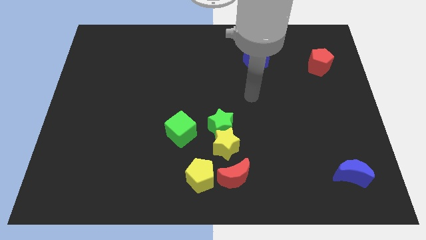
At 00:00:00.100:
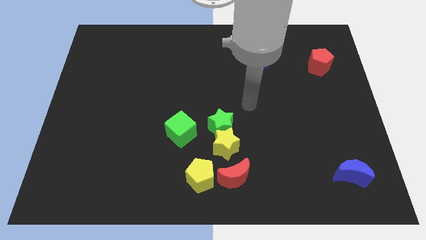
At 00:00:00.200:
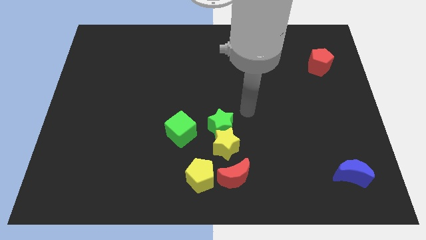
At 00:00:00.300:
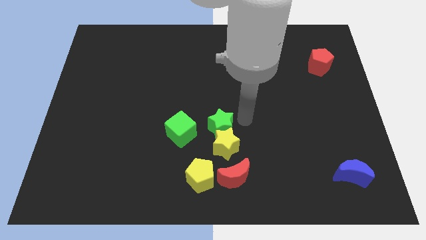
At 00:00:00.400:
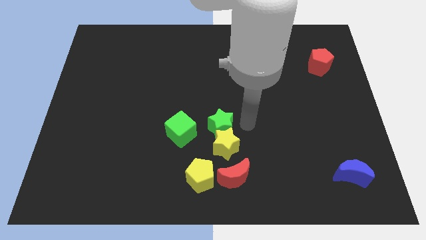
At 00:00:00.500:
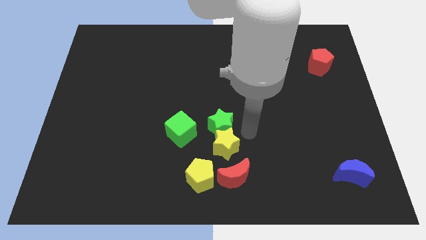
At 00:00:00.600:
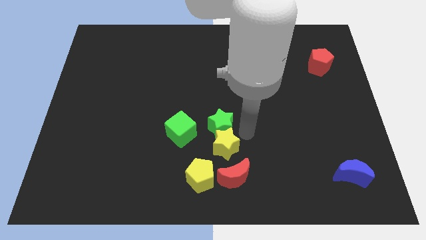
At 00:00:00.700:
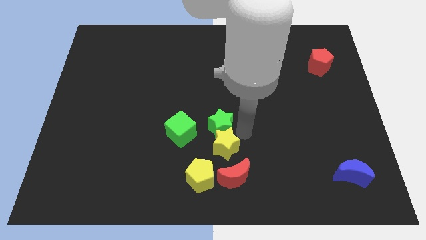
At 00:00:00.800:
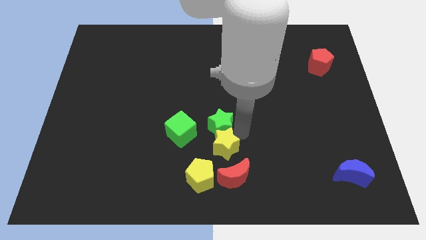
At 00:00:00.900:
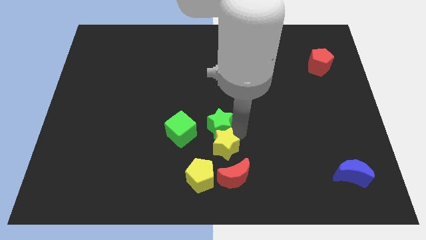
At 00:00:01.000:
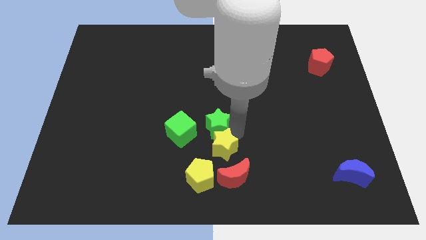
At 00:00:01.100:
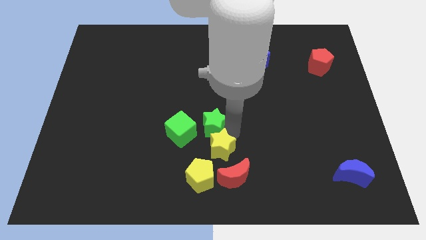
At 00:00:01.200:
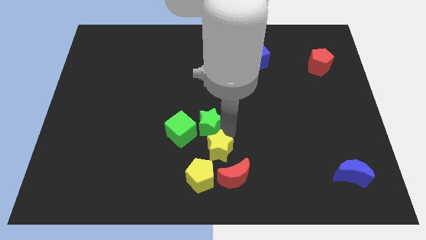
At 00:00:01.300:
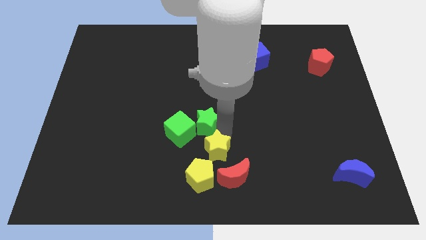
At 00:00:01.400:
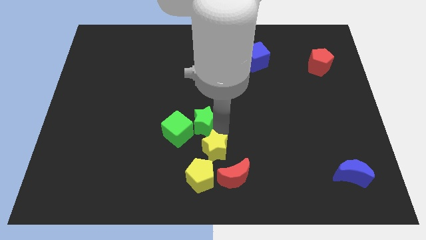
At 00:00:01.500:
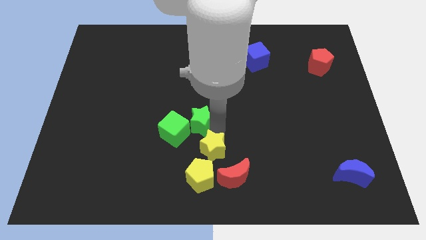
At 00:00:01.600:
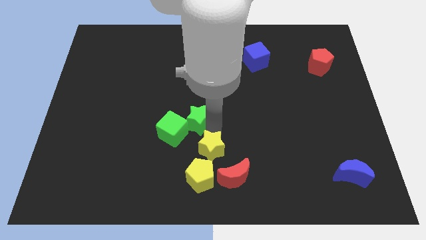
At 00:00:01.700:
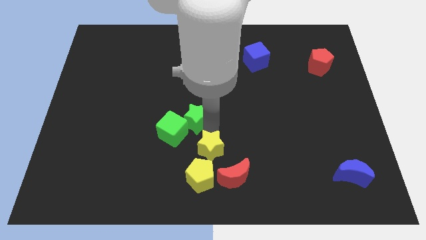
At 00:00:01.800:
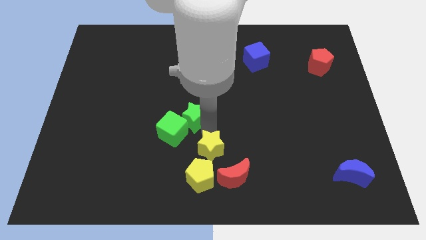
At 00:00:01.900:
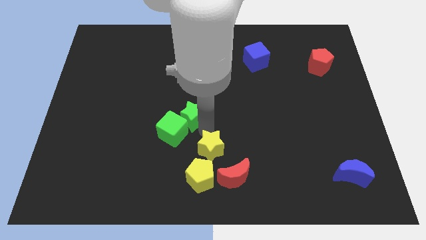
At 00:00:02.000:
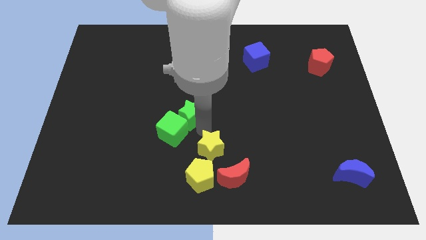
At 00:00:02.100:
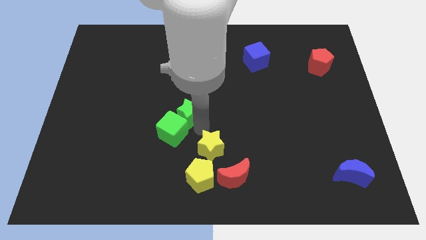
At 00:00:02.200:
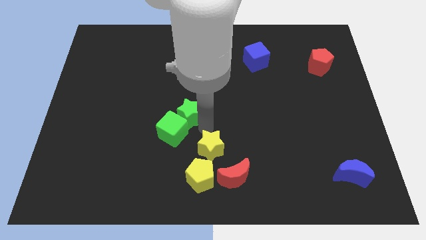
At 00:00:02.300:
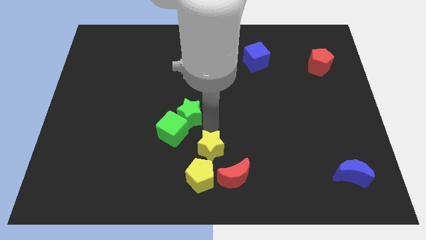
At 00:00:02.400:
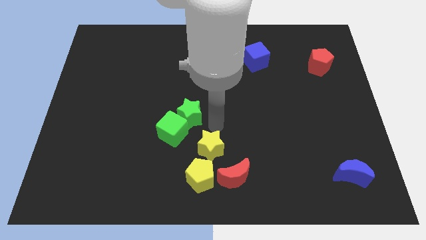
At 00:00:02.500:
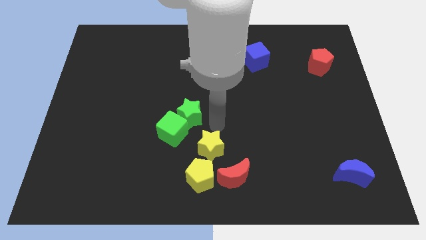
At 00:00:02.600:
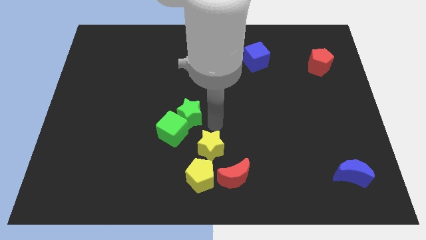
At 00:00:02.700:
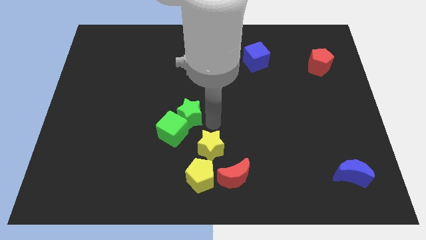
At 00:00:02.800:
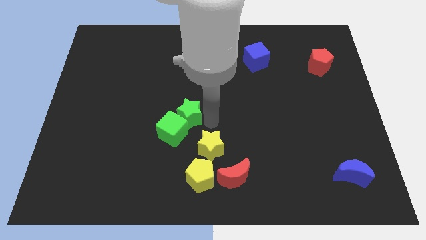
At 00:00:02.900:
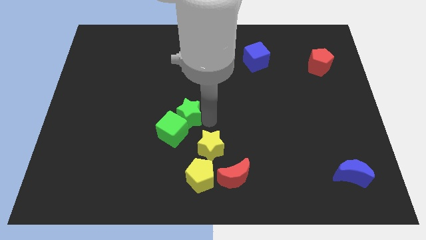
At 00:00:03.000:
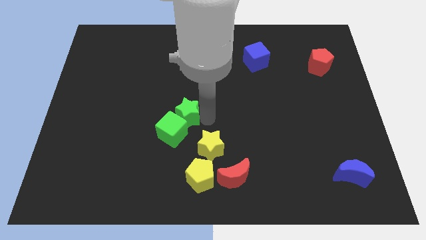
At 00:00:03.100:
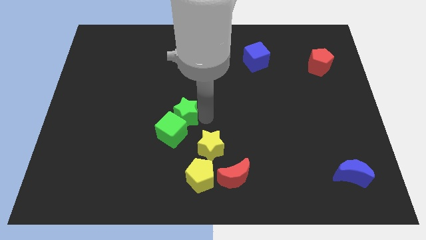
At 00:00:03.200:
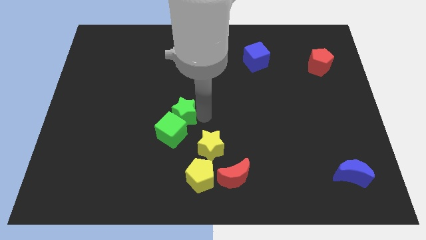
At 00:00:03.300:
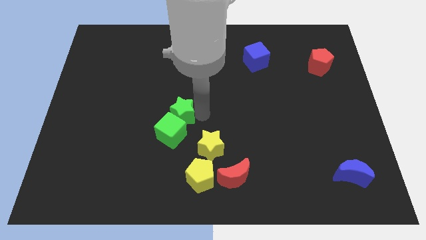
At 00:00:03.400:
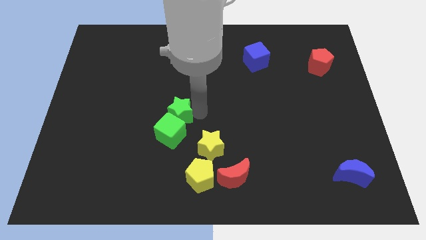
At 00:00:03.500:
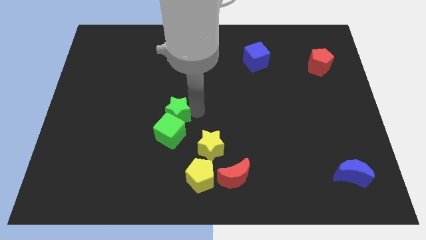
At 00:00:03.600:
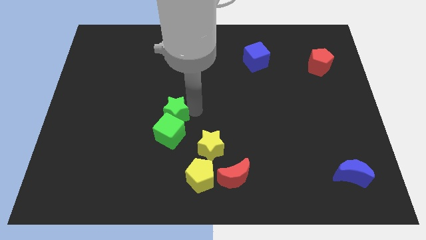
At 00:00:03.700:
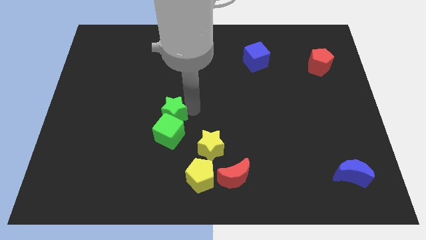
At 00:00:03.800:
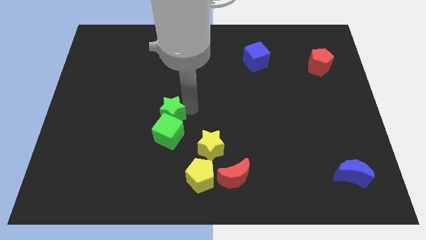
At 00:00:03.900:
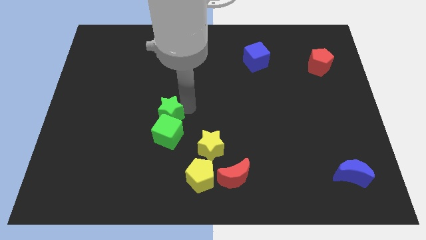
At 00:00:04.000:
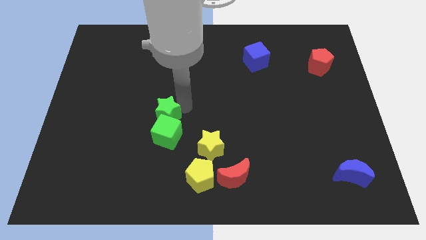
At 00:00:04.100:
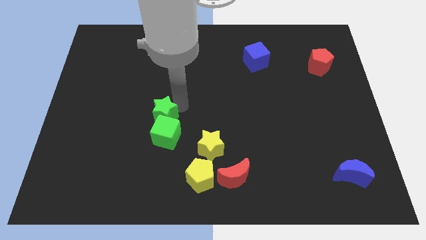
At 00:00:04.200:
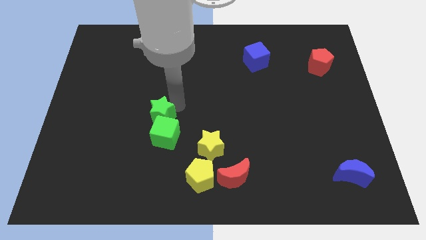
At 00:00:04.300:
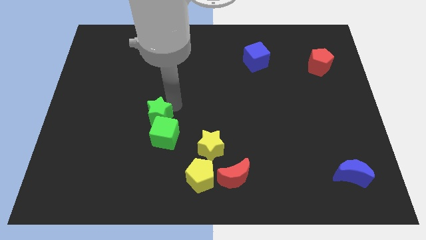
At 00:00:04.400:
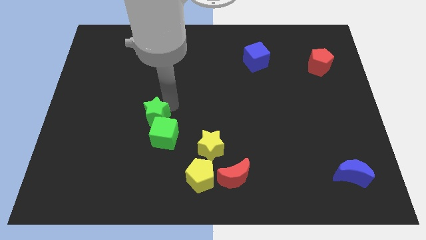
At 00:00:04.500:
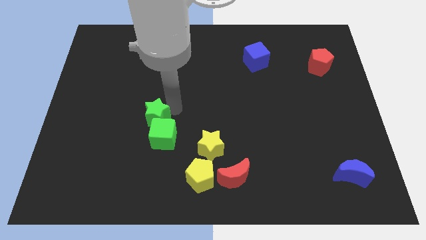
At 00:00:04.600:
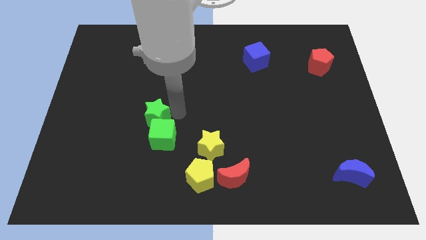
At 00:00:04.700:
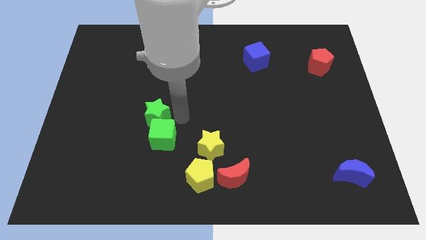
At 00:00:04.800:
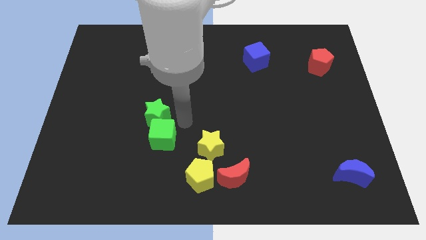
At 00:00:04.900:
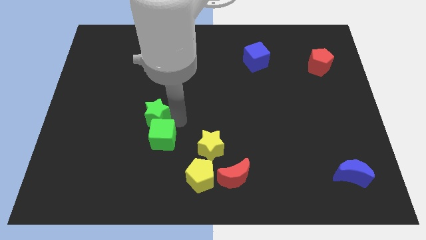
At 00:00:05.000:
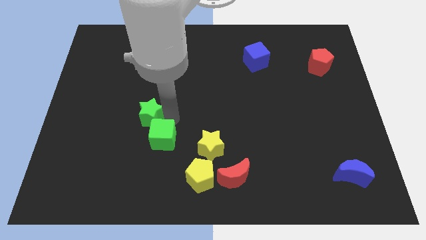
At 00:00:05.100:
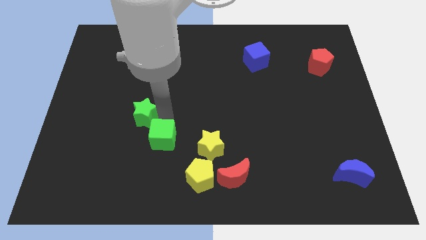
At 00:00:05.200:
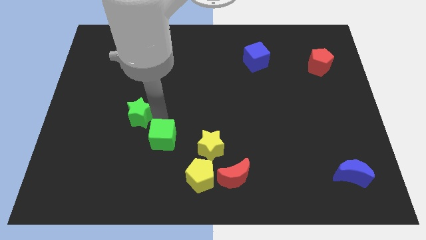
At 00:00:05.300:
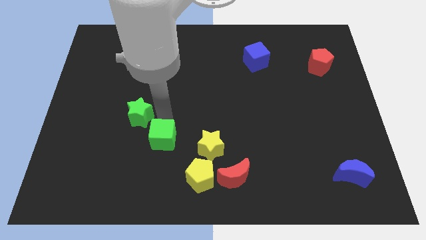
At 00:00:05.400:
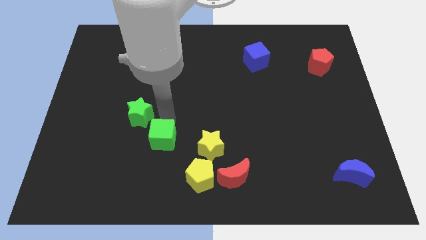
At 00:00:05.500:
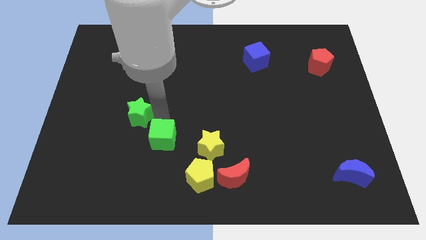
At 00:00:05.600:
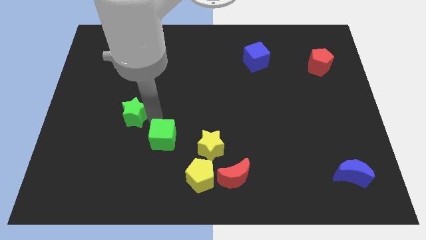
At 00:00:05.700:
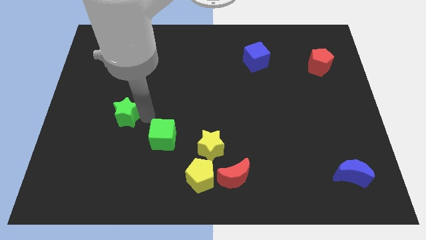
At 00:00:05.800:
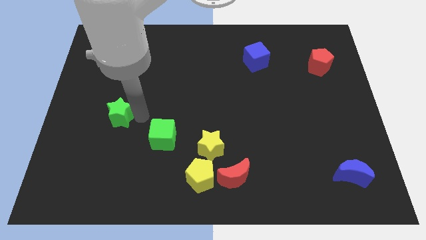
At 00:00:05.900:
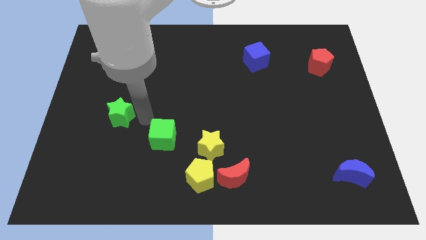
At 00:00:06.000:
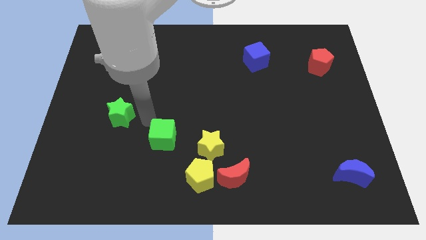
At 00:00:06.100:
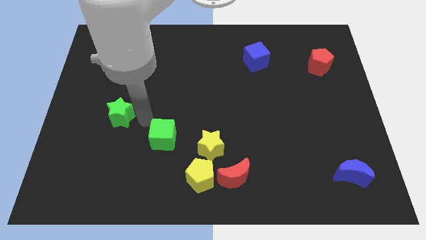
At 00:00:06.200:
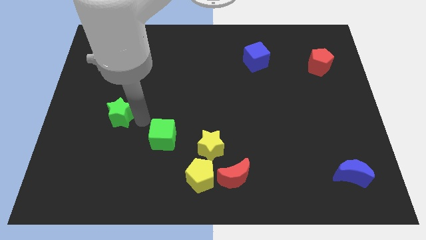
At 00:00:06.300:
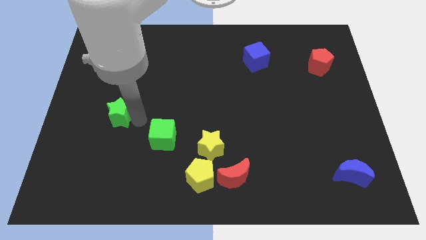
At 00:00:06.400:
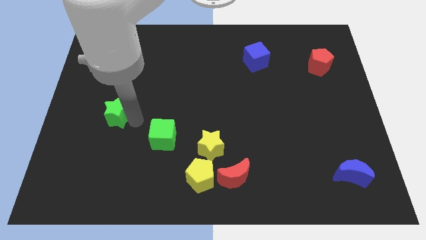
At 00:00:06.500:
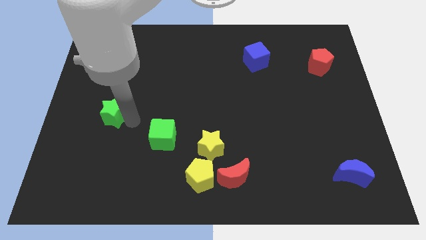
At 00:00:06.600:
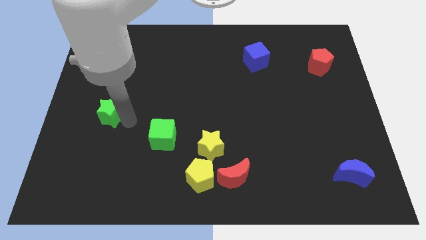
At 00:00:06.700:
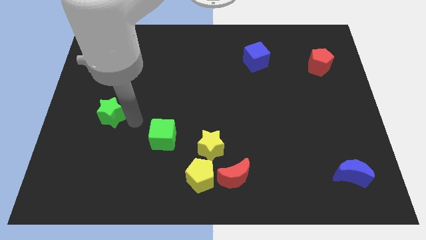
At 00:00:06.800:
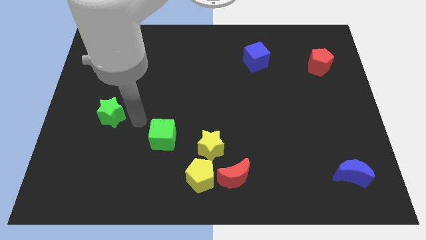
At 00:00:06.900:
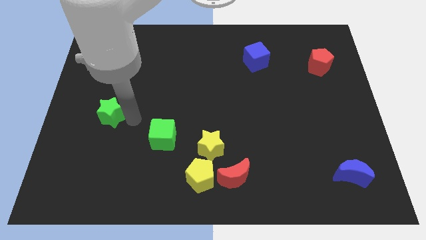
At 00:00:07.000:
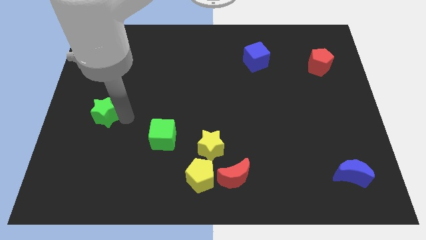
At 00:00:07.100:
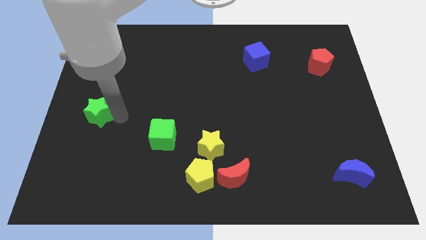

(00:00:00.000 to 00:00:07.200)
put the green star to the left side of the board
